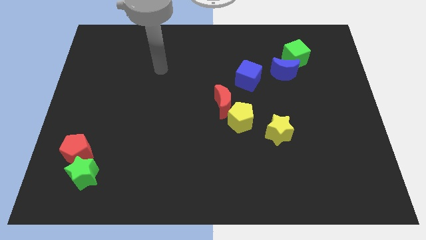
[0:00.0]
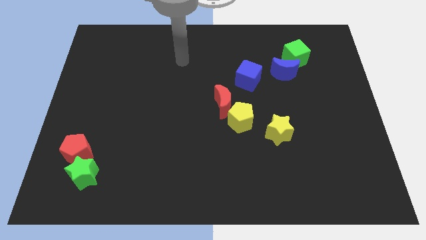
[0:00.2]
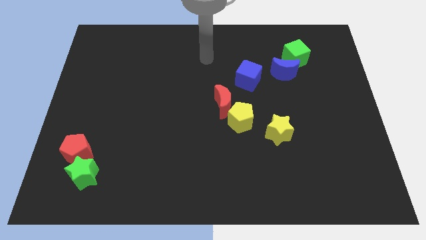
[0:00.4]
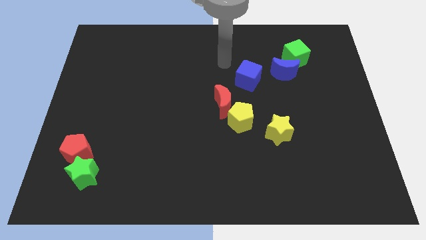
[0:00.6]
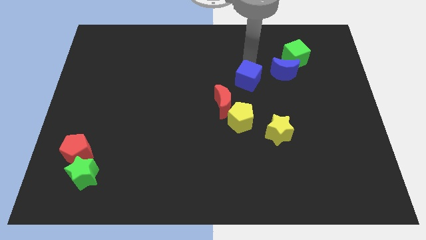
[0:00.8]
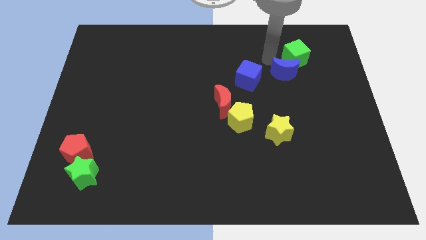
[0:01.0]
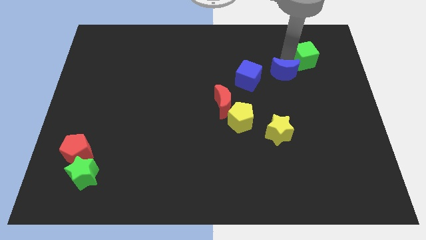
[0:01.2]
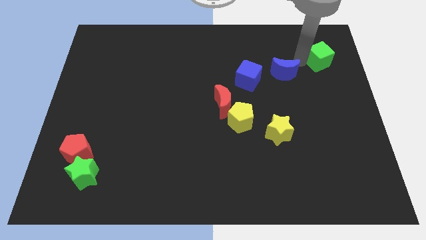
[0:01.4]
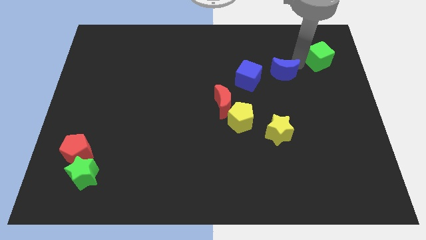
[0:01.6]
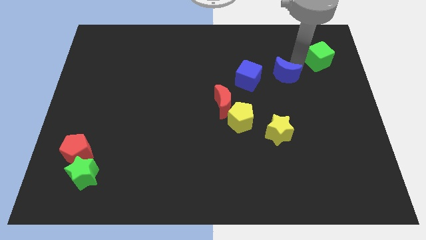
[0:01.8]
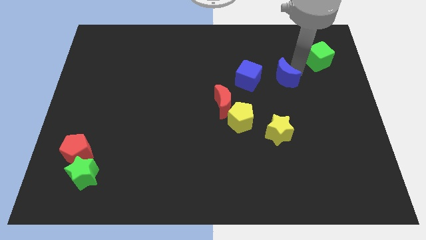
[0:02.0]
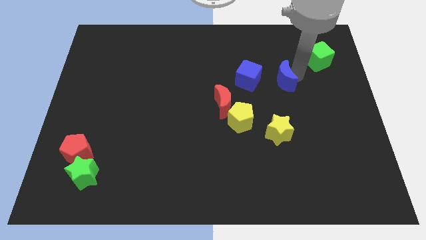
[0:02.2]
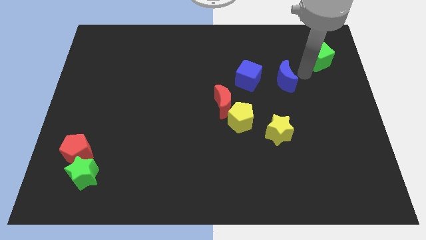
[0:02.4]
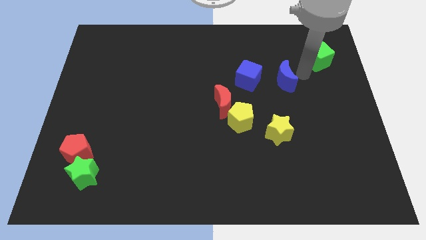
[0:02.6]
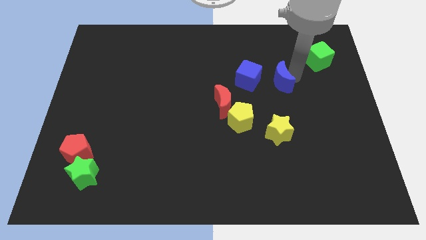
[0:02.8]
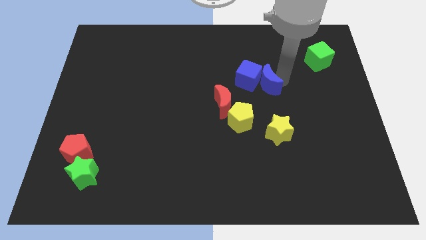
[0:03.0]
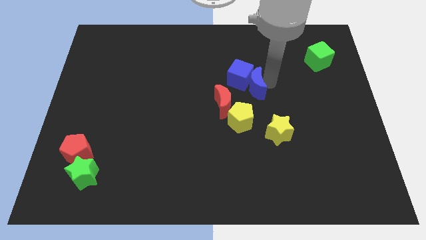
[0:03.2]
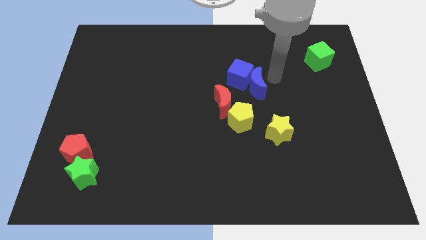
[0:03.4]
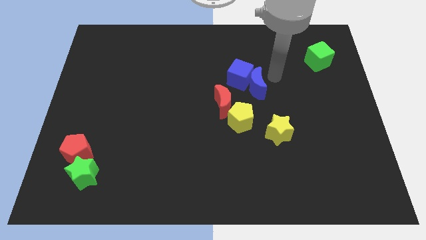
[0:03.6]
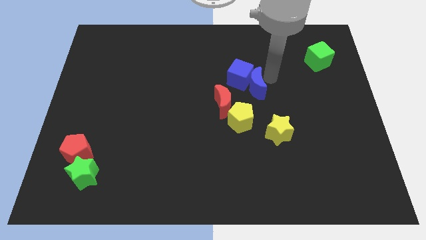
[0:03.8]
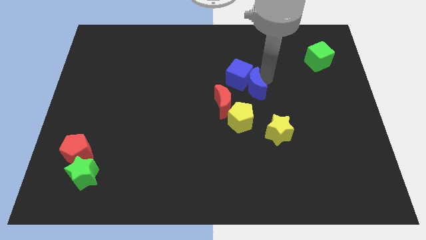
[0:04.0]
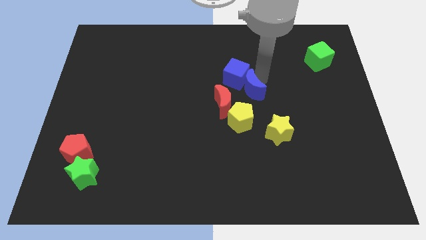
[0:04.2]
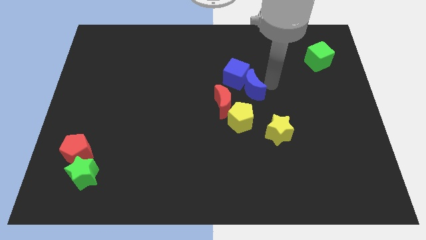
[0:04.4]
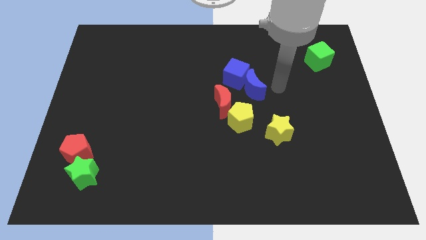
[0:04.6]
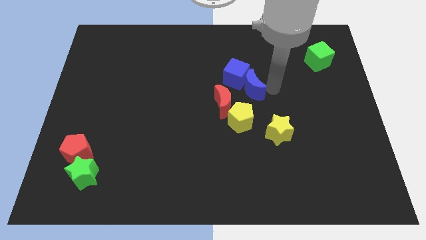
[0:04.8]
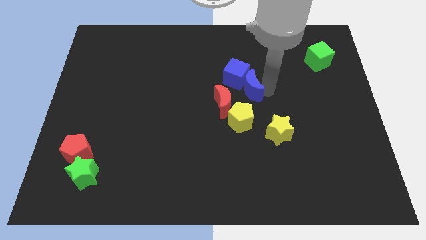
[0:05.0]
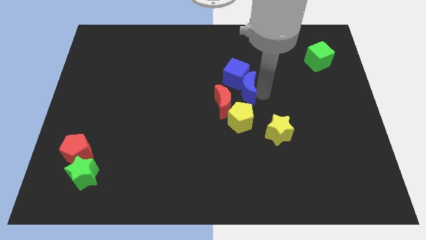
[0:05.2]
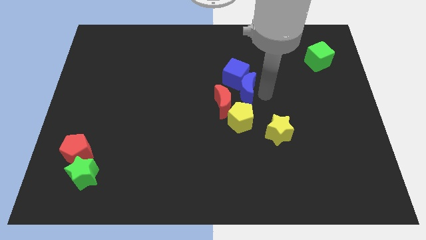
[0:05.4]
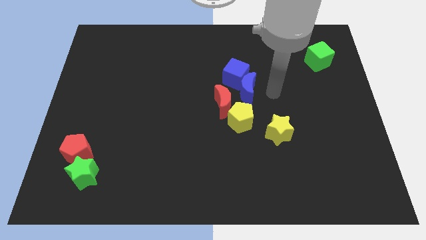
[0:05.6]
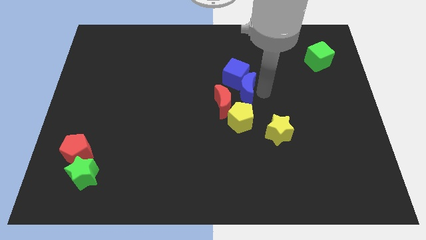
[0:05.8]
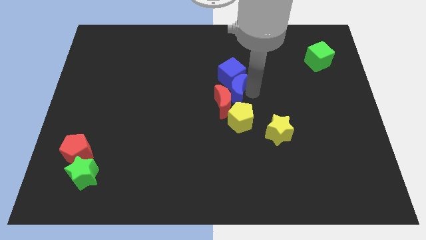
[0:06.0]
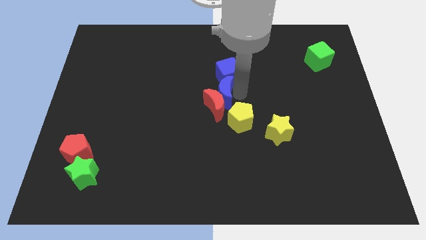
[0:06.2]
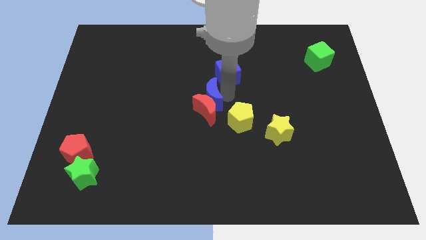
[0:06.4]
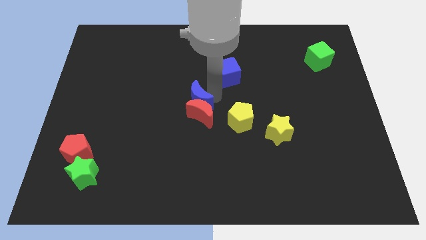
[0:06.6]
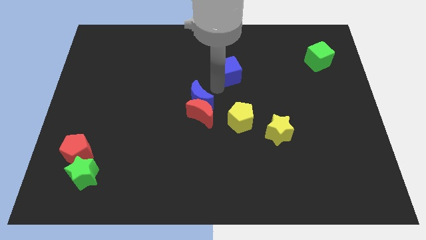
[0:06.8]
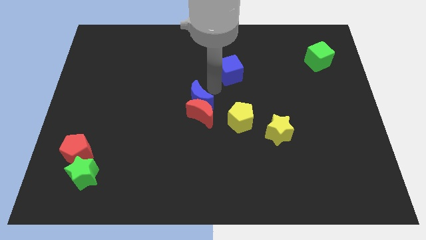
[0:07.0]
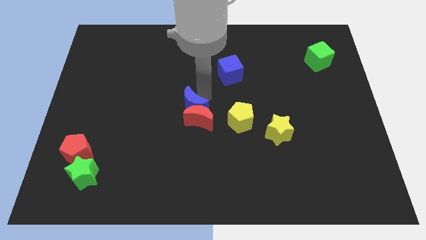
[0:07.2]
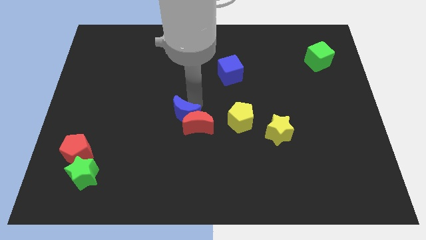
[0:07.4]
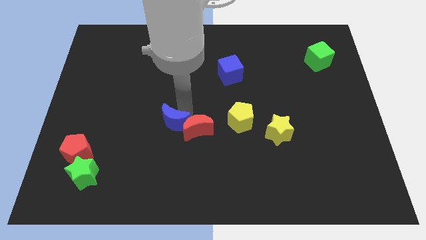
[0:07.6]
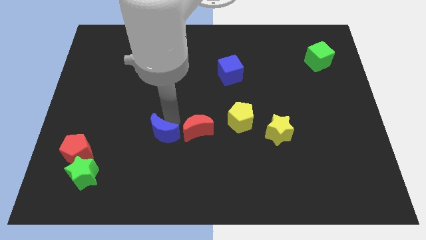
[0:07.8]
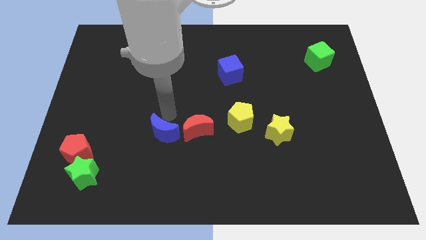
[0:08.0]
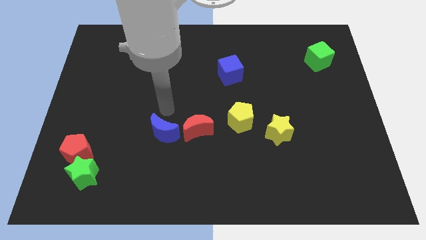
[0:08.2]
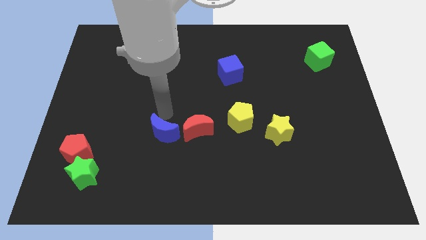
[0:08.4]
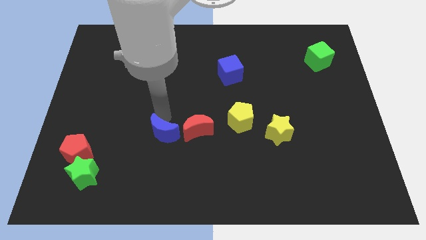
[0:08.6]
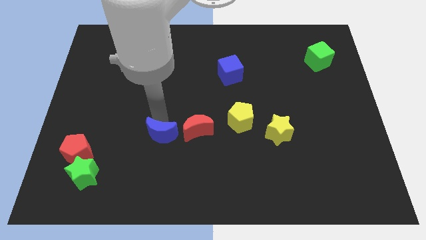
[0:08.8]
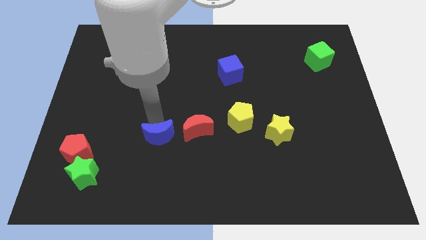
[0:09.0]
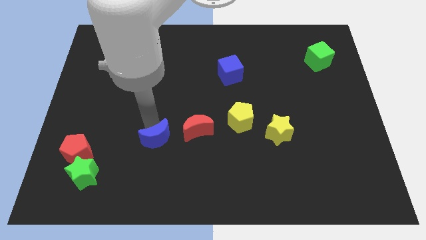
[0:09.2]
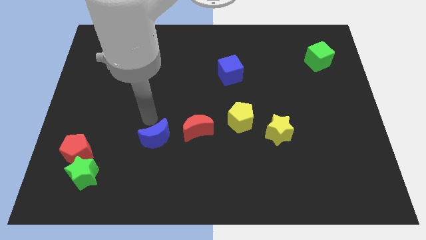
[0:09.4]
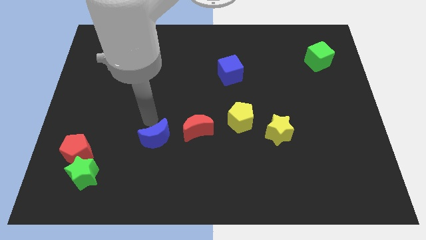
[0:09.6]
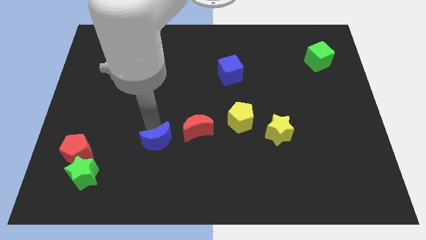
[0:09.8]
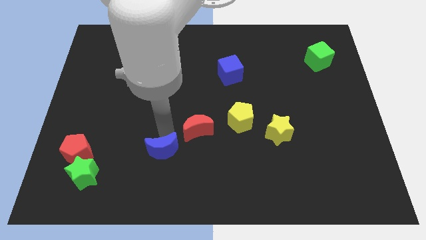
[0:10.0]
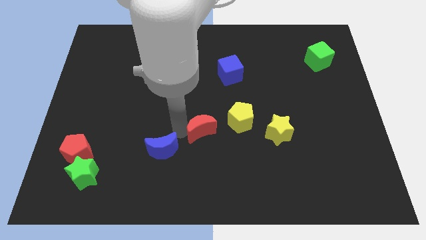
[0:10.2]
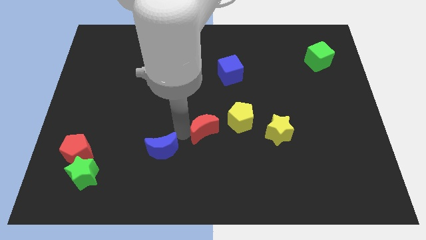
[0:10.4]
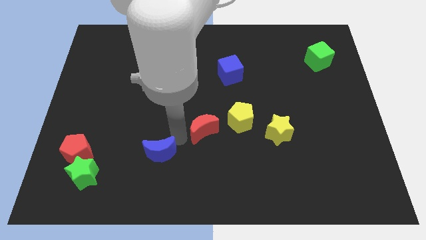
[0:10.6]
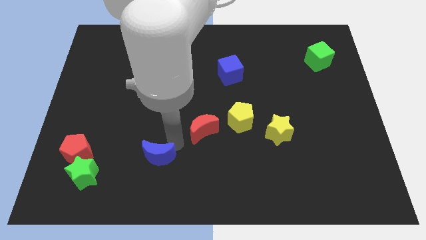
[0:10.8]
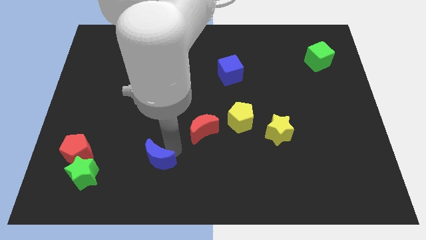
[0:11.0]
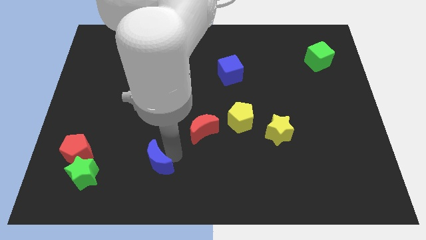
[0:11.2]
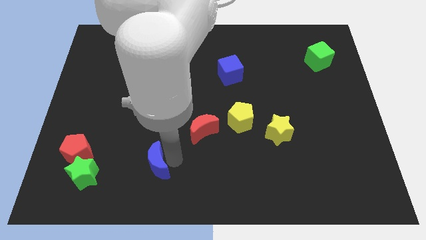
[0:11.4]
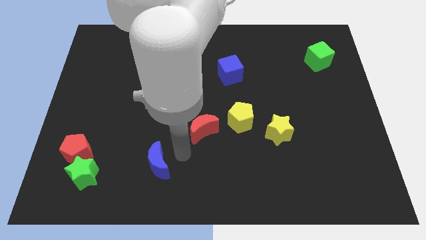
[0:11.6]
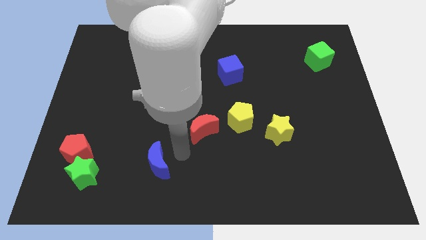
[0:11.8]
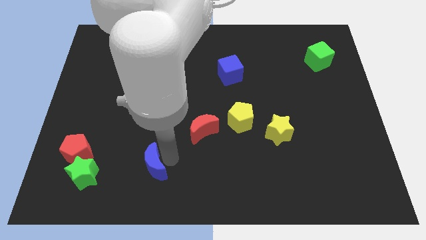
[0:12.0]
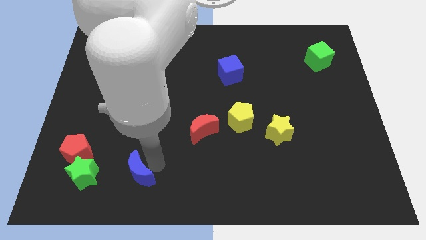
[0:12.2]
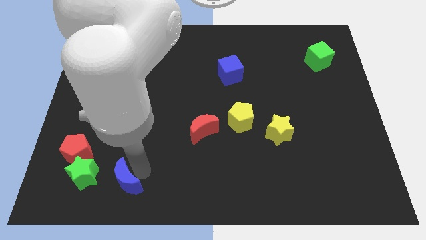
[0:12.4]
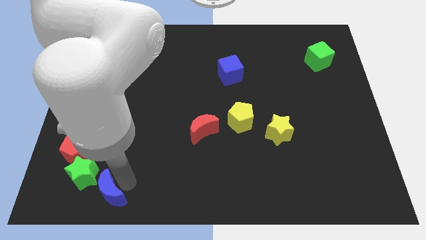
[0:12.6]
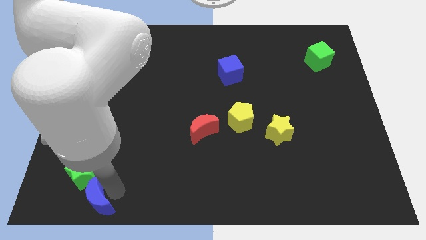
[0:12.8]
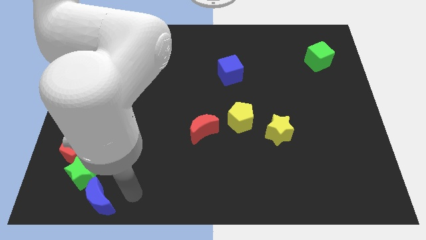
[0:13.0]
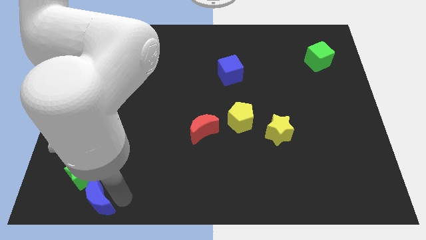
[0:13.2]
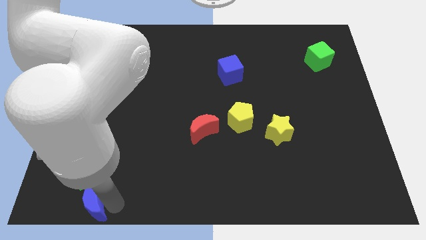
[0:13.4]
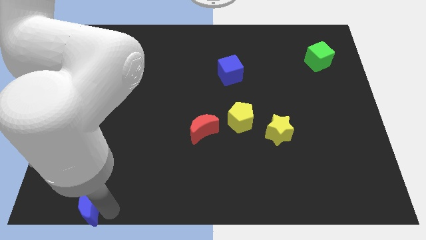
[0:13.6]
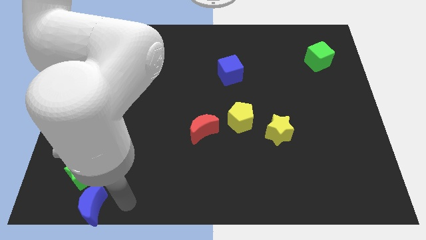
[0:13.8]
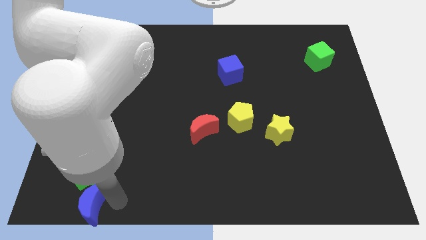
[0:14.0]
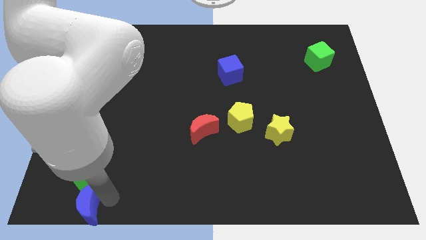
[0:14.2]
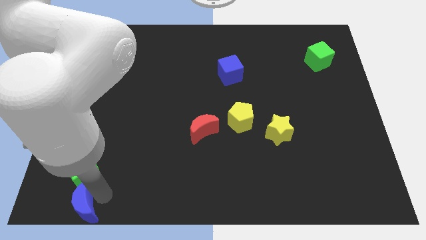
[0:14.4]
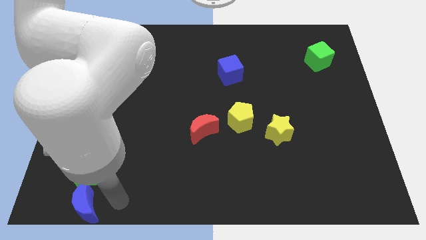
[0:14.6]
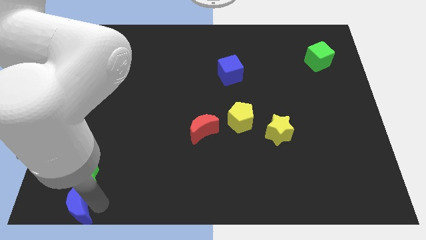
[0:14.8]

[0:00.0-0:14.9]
slide the blue moon to the bottom left corner
